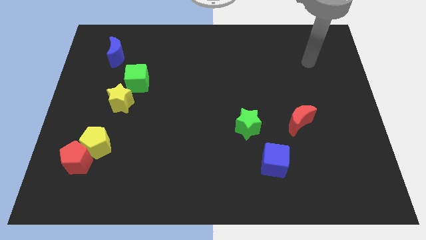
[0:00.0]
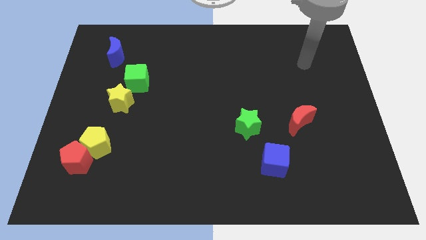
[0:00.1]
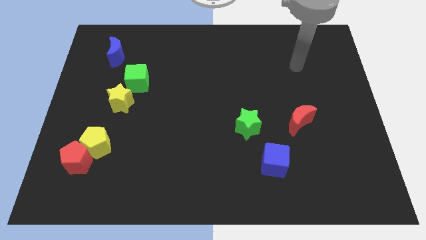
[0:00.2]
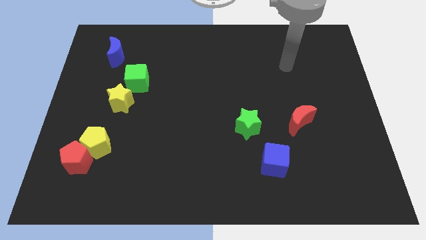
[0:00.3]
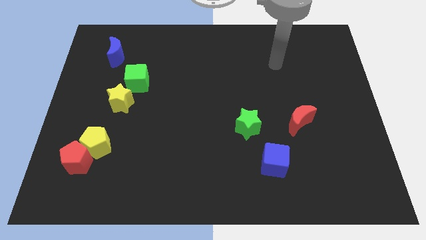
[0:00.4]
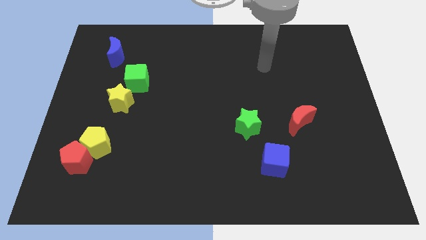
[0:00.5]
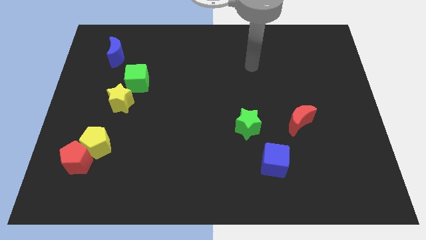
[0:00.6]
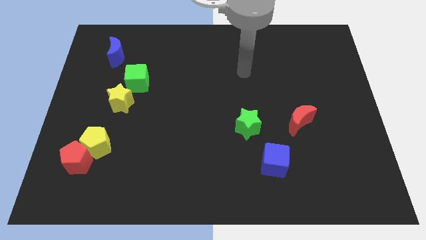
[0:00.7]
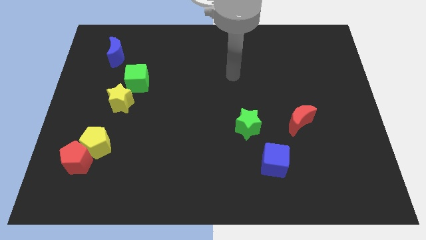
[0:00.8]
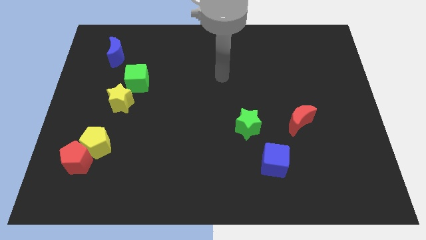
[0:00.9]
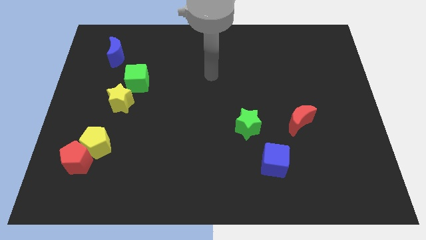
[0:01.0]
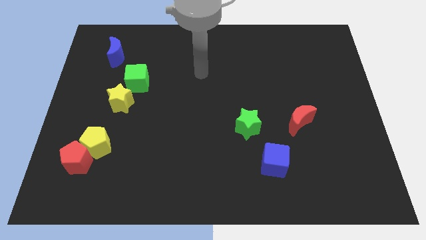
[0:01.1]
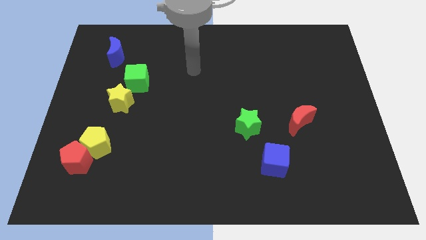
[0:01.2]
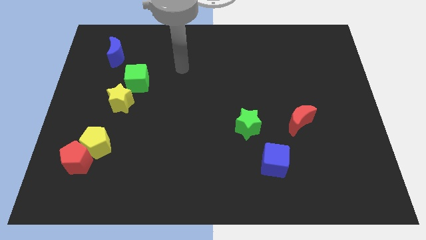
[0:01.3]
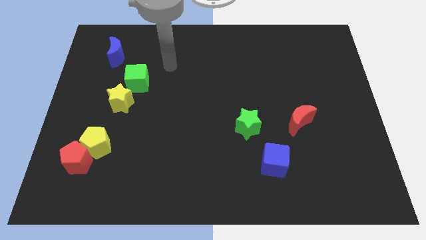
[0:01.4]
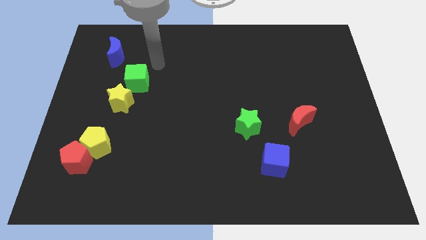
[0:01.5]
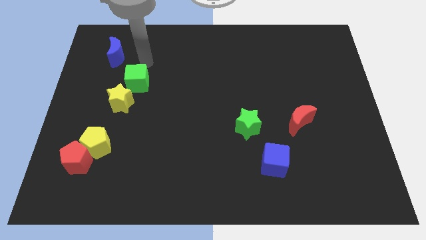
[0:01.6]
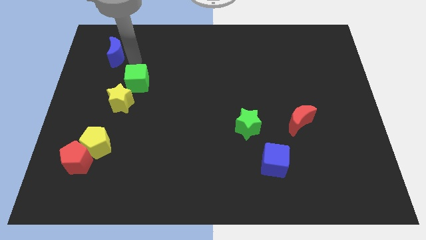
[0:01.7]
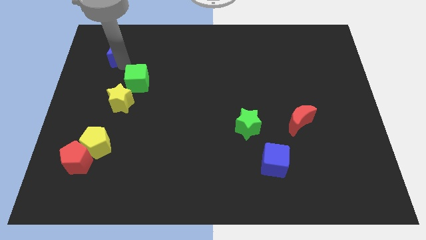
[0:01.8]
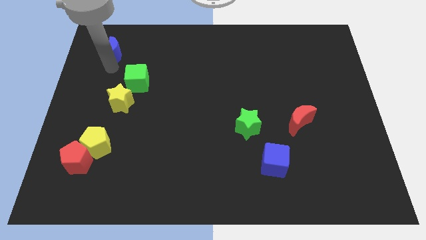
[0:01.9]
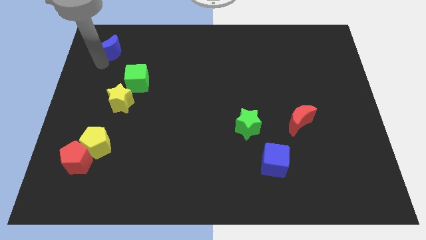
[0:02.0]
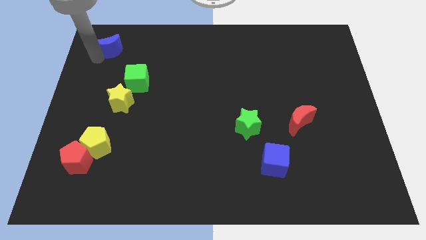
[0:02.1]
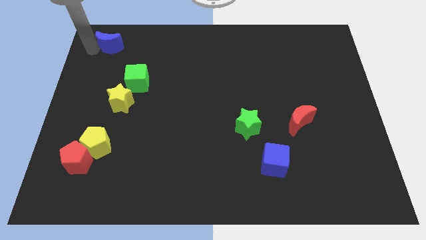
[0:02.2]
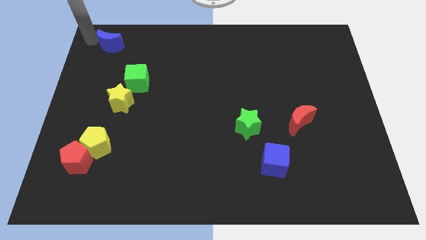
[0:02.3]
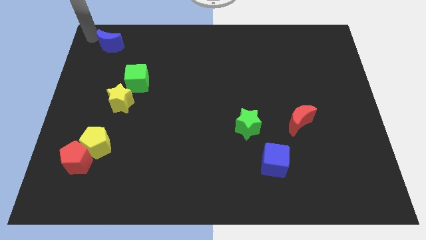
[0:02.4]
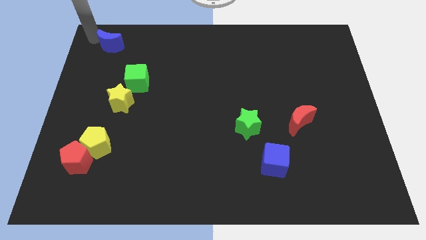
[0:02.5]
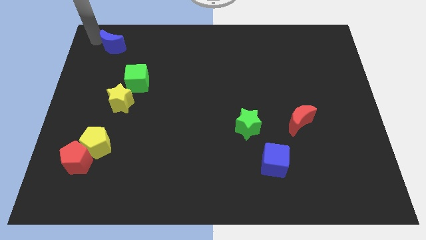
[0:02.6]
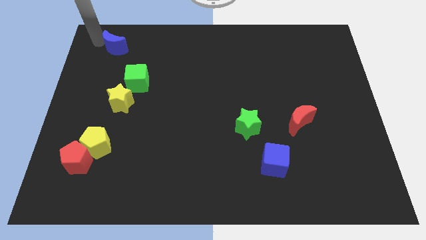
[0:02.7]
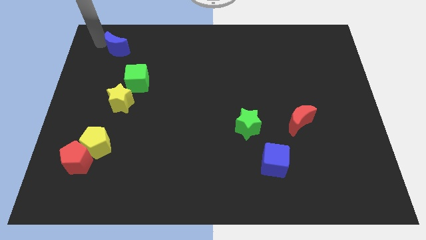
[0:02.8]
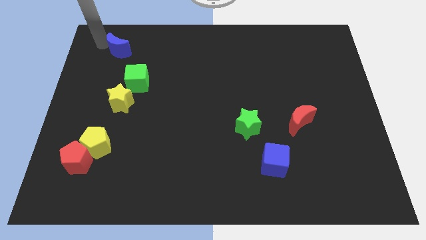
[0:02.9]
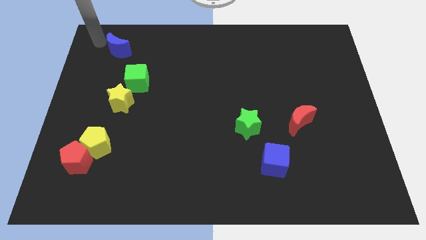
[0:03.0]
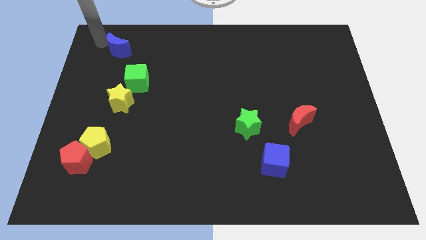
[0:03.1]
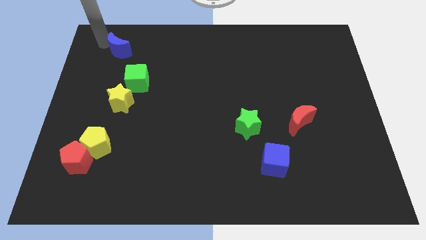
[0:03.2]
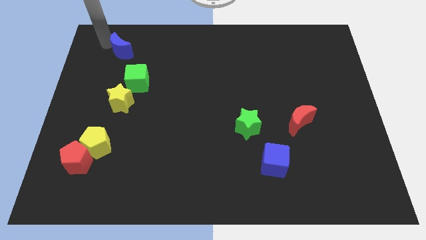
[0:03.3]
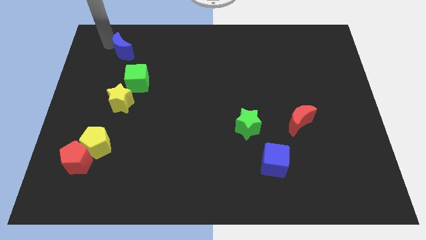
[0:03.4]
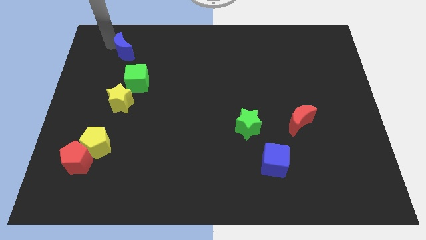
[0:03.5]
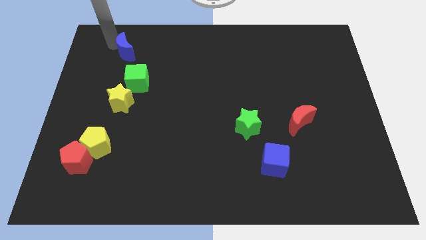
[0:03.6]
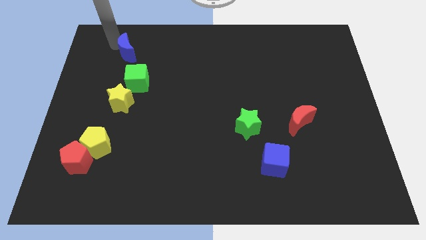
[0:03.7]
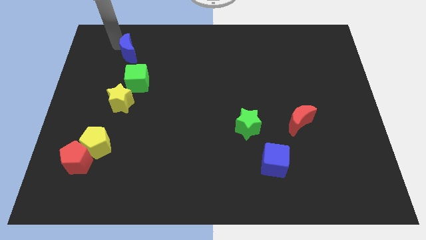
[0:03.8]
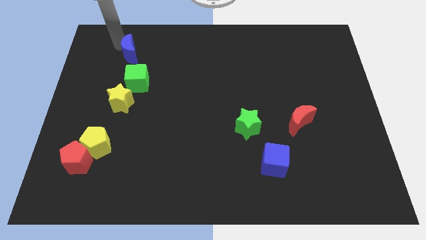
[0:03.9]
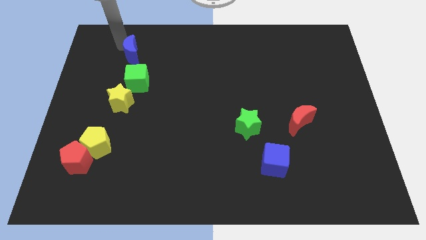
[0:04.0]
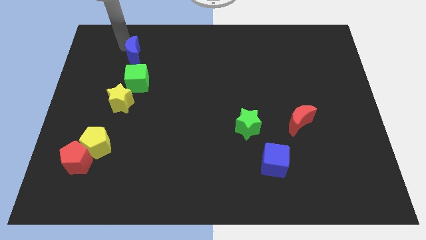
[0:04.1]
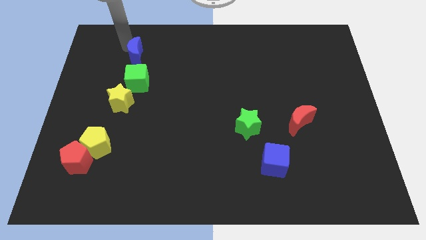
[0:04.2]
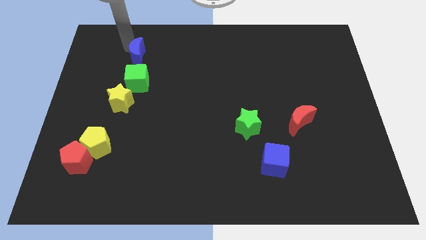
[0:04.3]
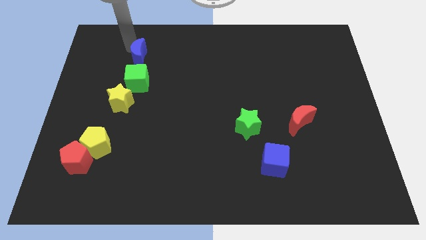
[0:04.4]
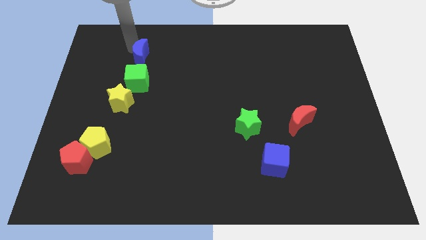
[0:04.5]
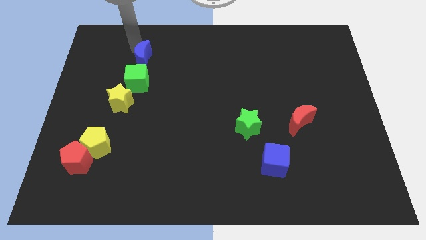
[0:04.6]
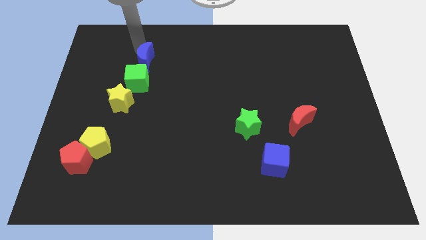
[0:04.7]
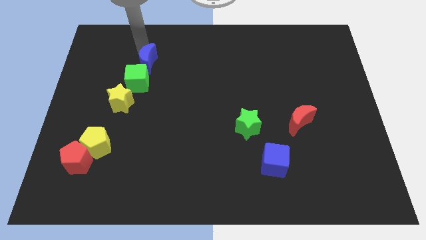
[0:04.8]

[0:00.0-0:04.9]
slightly move the blue moon diagonally down and right

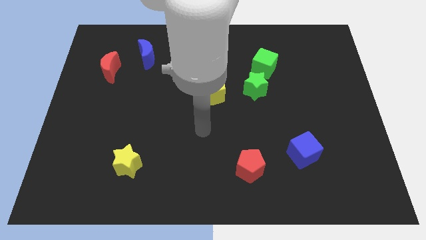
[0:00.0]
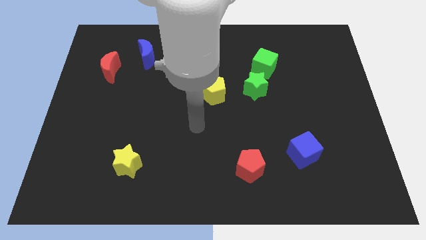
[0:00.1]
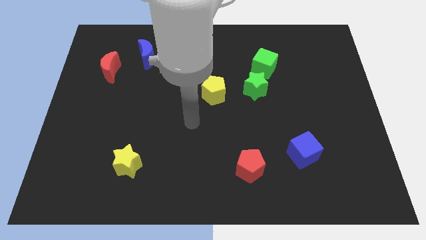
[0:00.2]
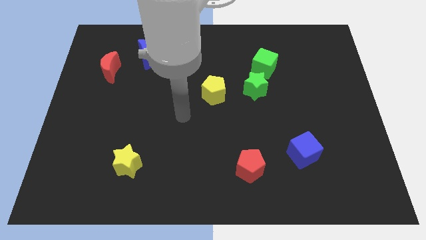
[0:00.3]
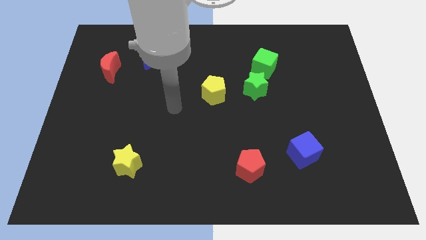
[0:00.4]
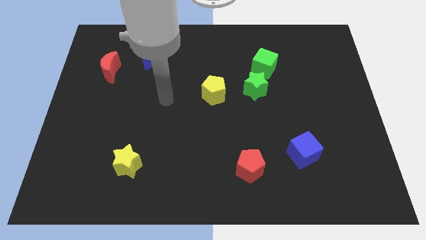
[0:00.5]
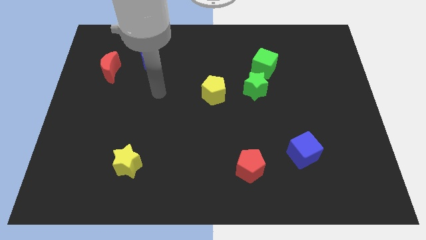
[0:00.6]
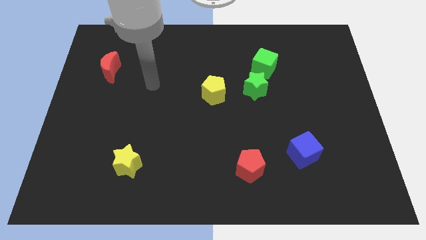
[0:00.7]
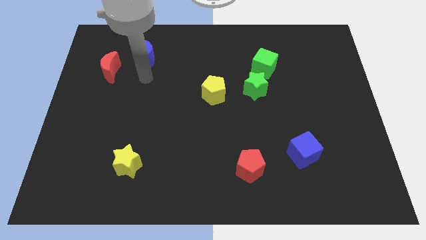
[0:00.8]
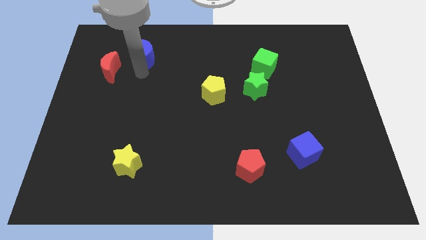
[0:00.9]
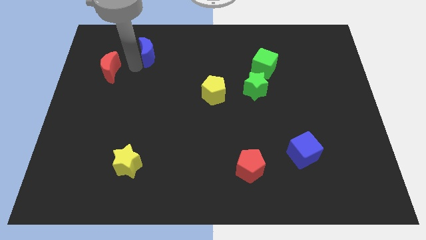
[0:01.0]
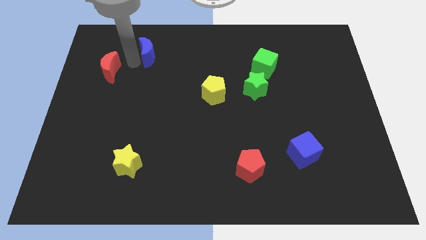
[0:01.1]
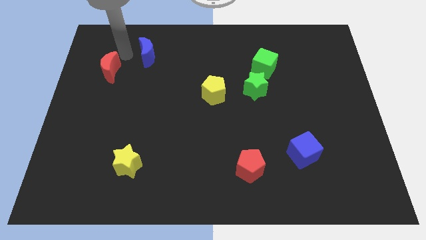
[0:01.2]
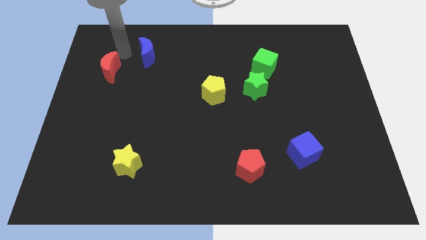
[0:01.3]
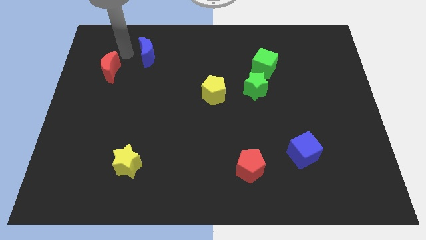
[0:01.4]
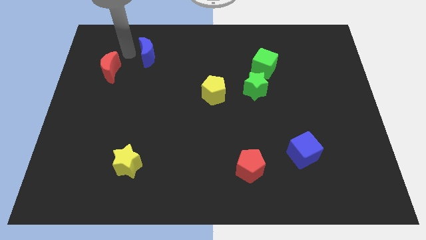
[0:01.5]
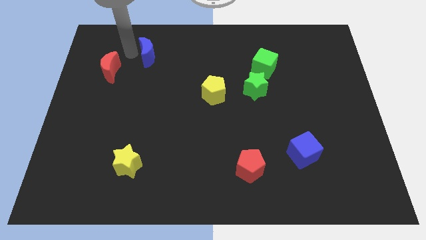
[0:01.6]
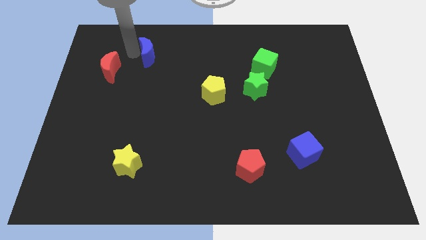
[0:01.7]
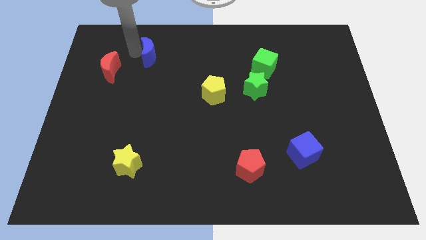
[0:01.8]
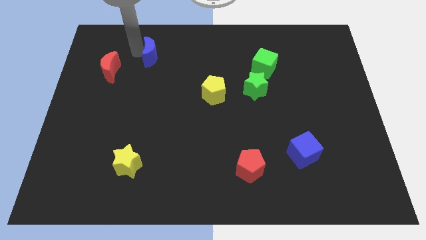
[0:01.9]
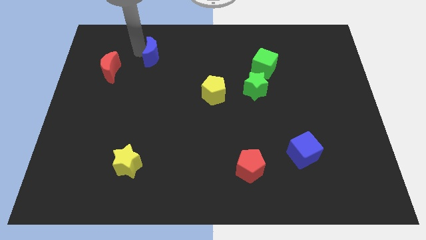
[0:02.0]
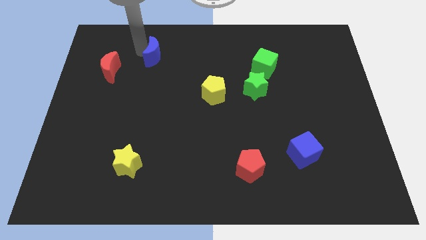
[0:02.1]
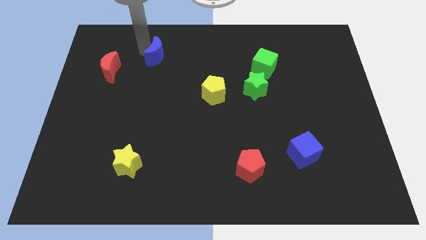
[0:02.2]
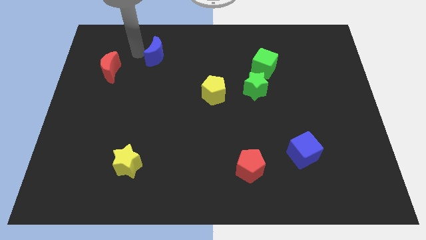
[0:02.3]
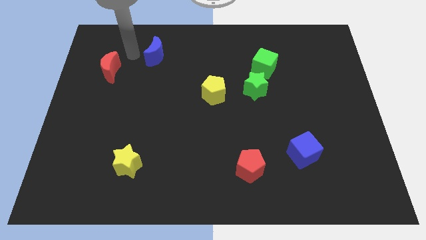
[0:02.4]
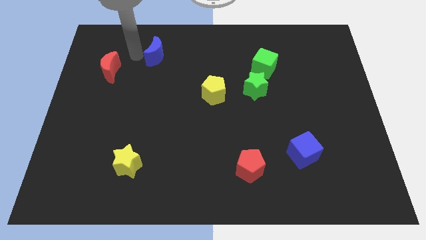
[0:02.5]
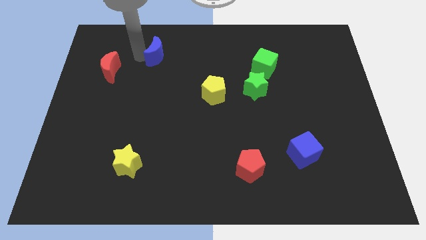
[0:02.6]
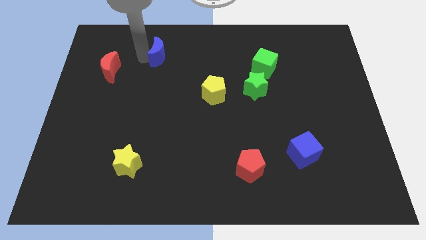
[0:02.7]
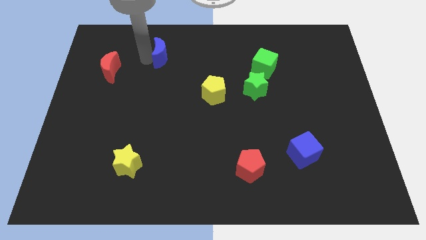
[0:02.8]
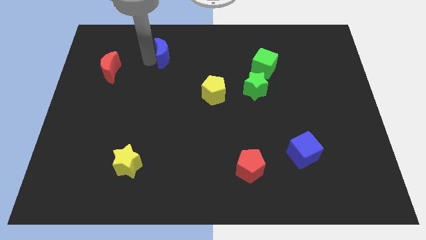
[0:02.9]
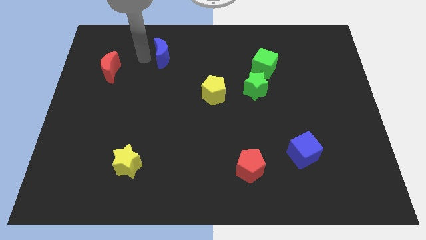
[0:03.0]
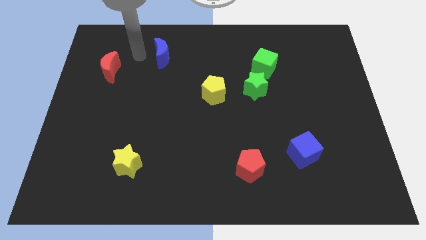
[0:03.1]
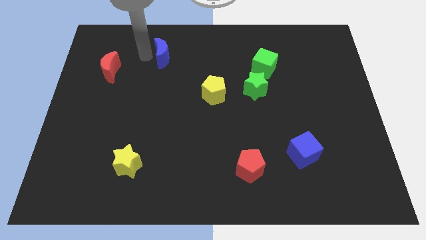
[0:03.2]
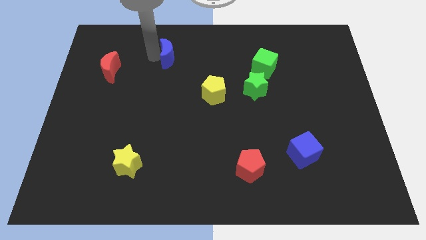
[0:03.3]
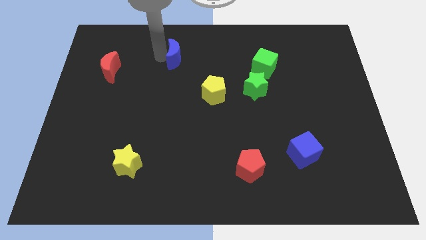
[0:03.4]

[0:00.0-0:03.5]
push the blue moon to the right a little bit
